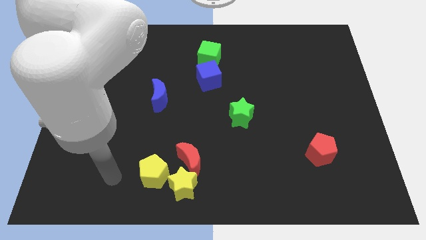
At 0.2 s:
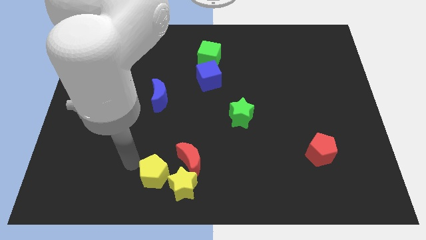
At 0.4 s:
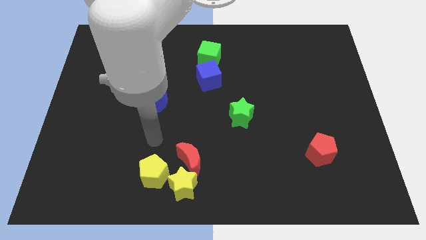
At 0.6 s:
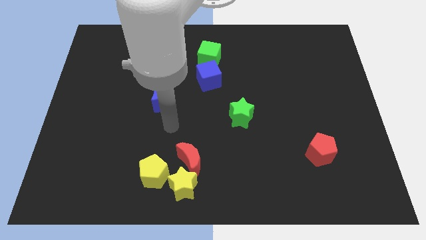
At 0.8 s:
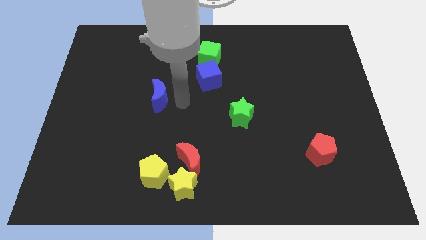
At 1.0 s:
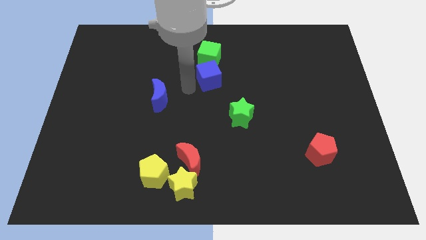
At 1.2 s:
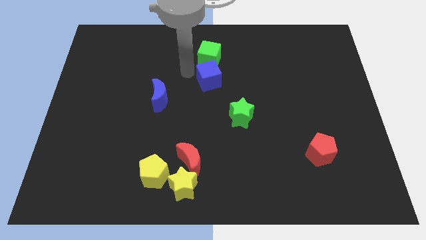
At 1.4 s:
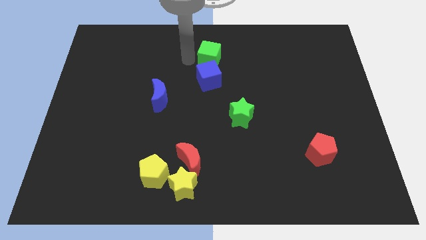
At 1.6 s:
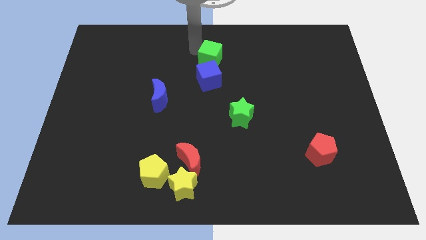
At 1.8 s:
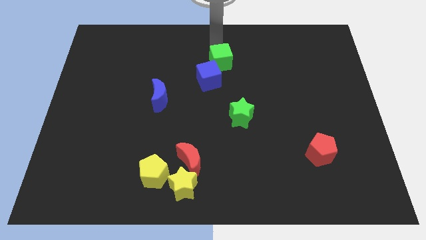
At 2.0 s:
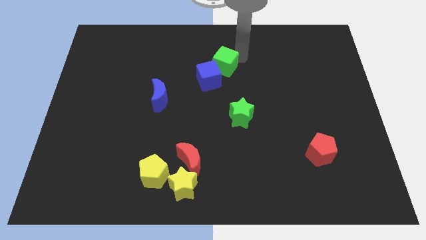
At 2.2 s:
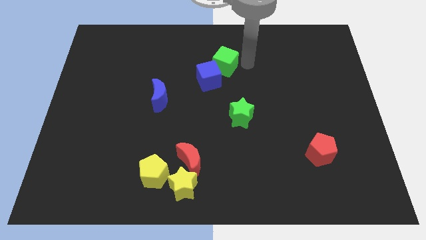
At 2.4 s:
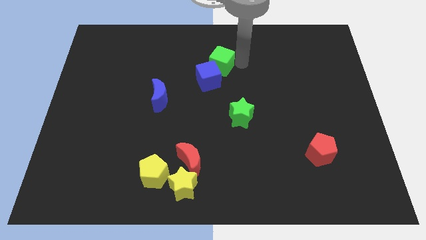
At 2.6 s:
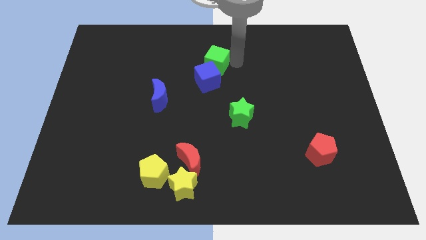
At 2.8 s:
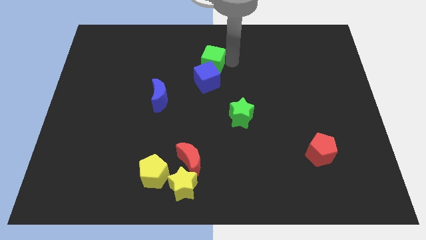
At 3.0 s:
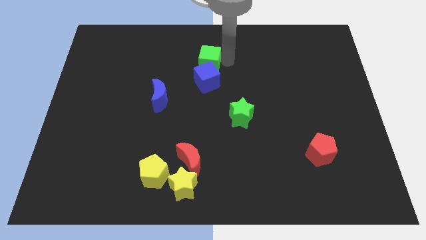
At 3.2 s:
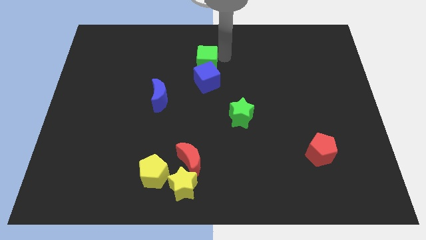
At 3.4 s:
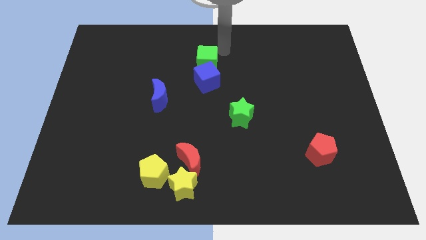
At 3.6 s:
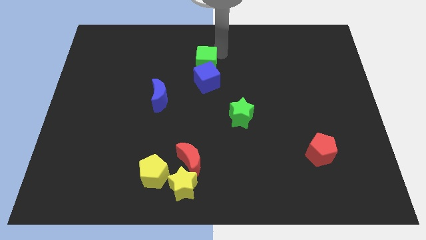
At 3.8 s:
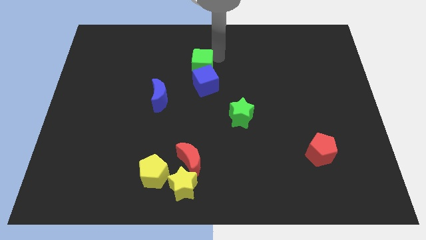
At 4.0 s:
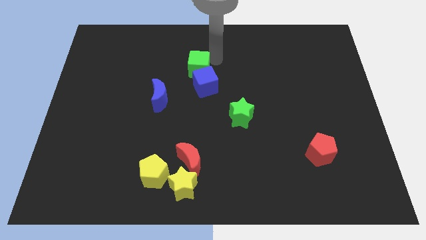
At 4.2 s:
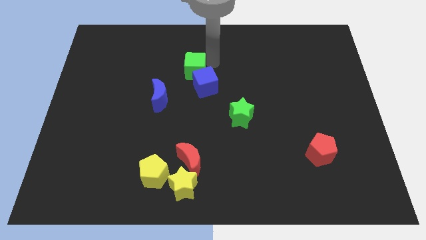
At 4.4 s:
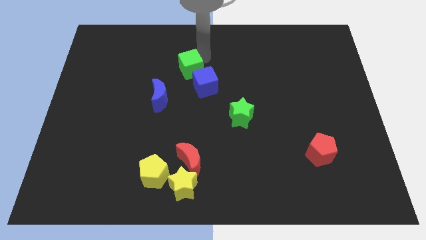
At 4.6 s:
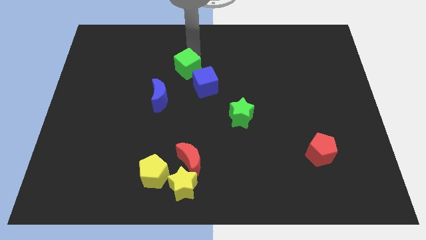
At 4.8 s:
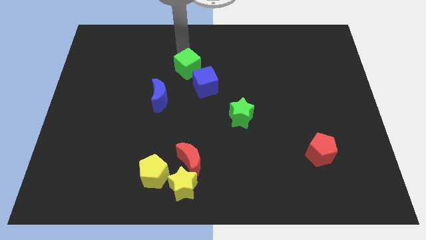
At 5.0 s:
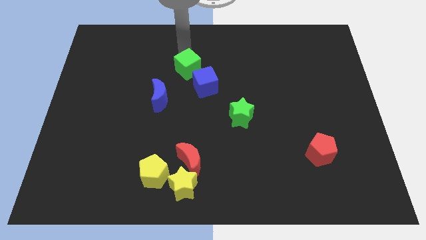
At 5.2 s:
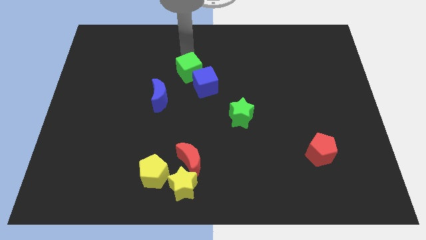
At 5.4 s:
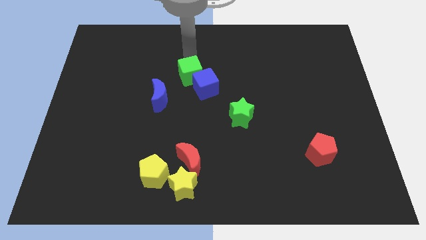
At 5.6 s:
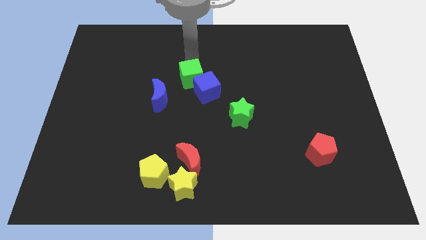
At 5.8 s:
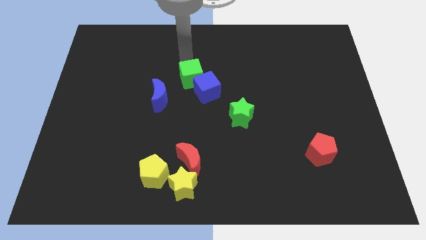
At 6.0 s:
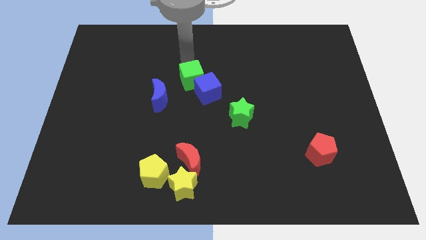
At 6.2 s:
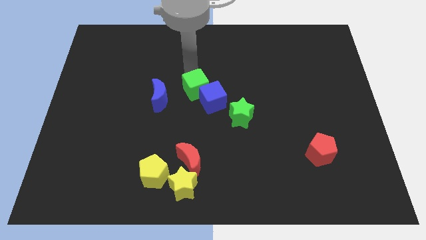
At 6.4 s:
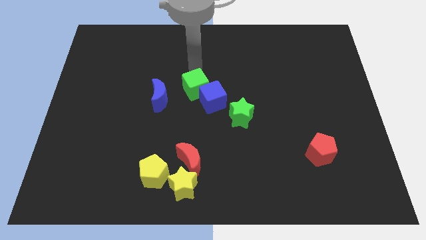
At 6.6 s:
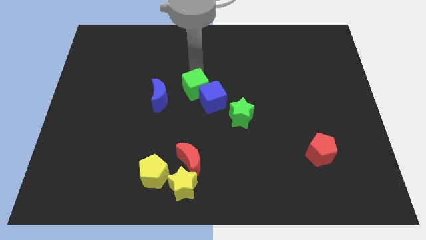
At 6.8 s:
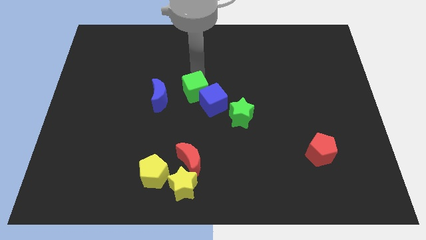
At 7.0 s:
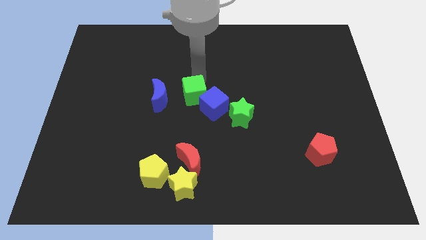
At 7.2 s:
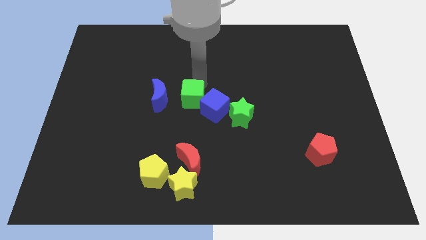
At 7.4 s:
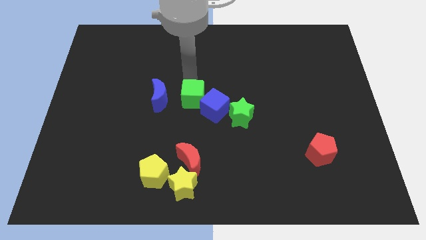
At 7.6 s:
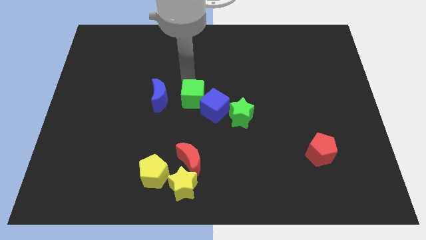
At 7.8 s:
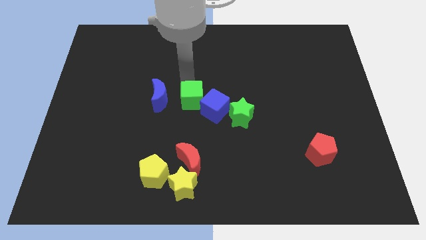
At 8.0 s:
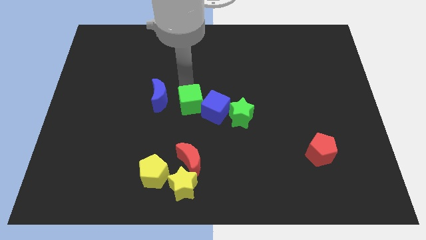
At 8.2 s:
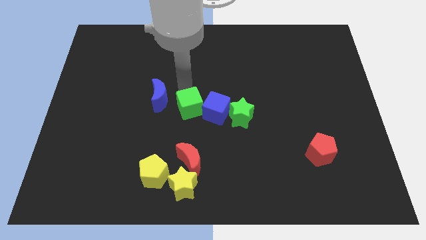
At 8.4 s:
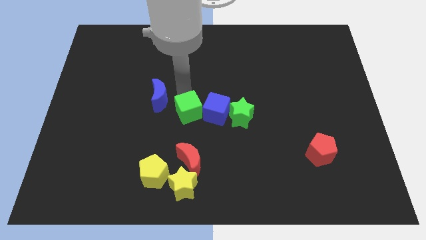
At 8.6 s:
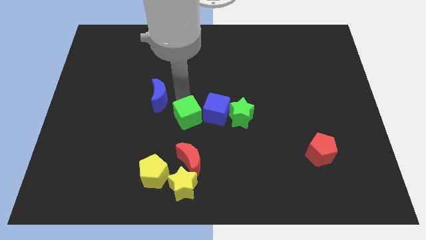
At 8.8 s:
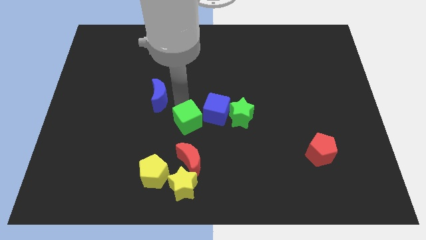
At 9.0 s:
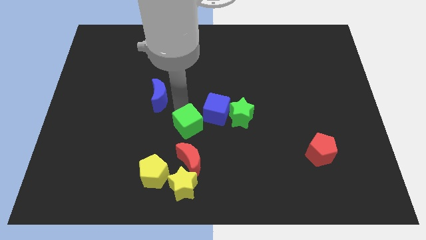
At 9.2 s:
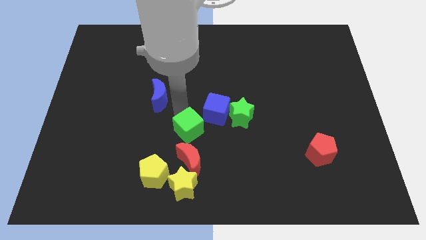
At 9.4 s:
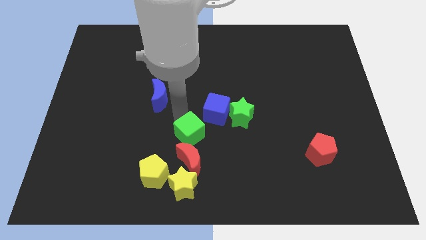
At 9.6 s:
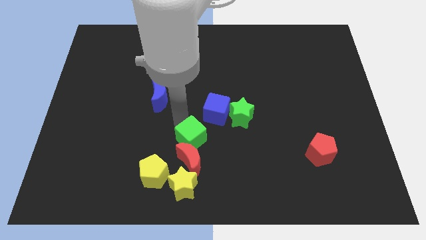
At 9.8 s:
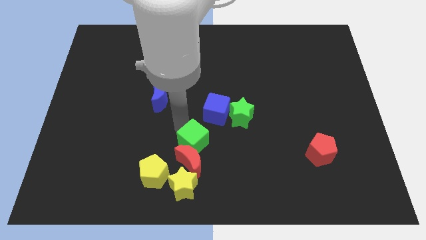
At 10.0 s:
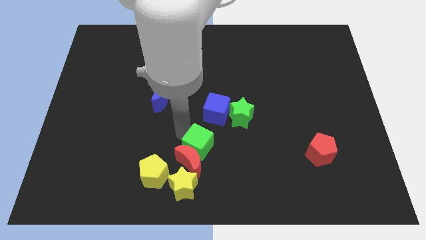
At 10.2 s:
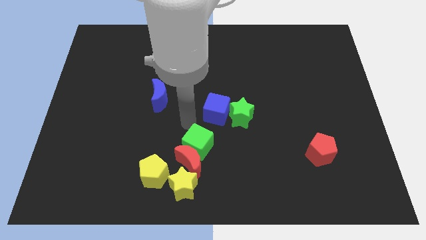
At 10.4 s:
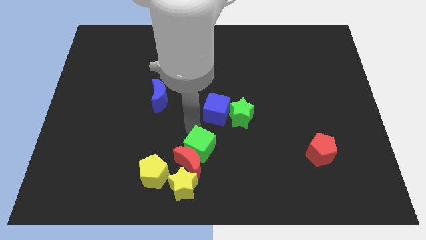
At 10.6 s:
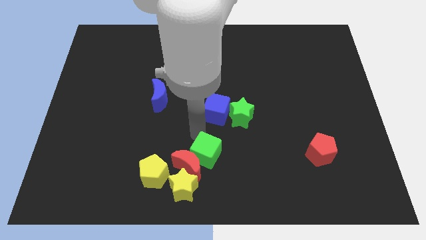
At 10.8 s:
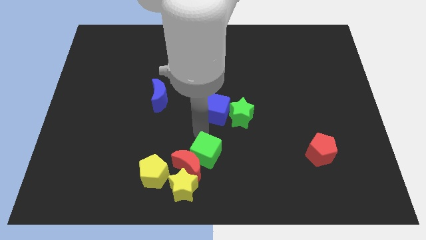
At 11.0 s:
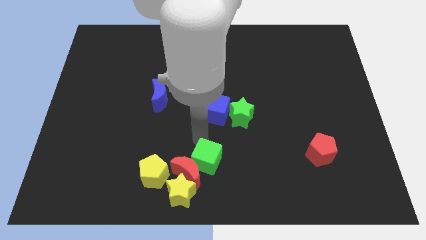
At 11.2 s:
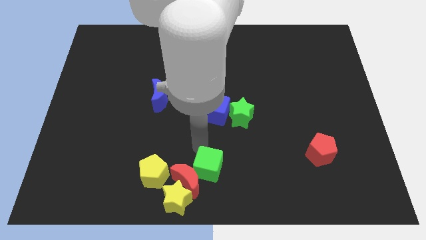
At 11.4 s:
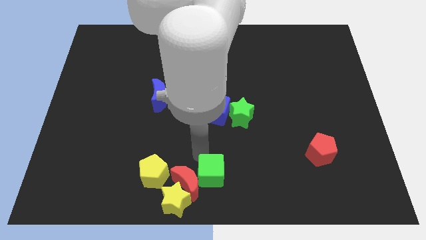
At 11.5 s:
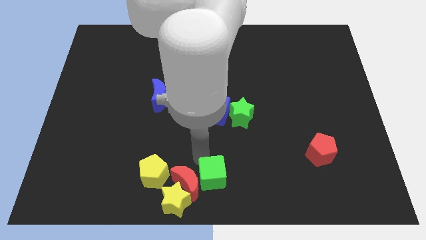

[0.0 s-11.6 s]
slide the green cube to the bottom right of the red moon

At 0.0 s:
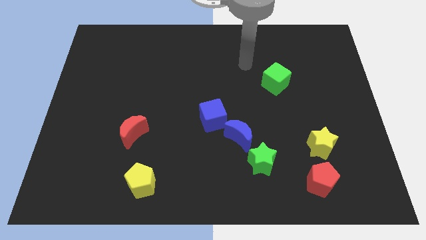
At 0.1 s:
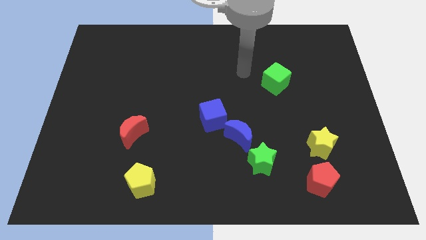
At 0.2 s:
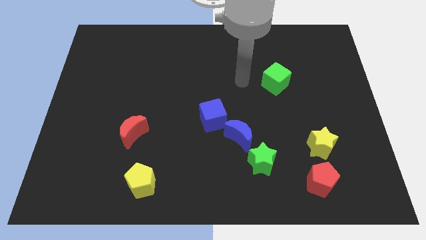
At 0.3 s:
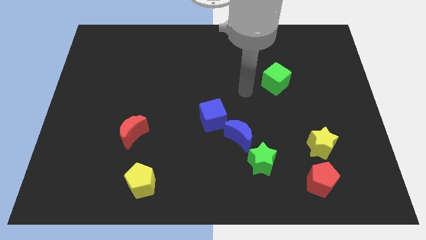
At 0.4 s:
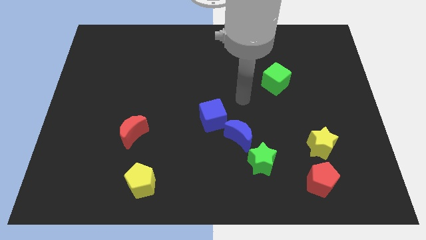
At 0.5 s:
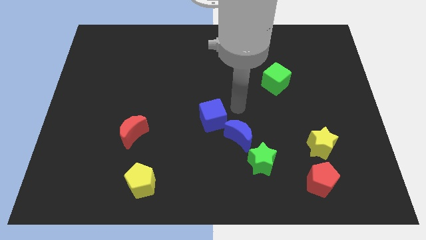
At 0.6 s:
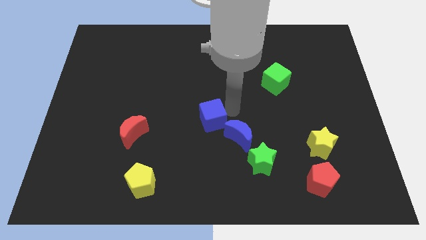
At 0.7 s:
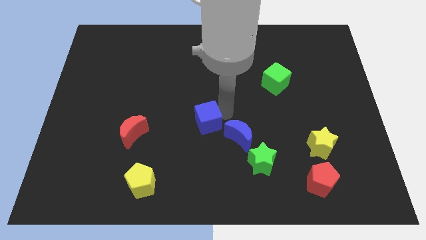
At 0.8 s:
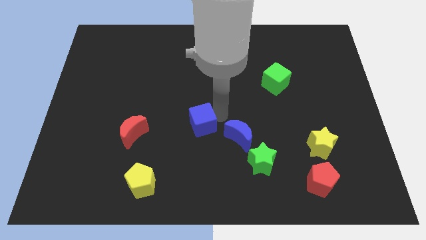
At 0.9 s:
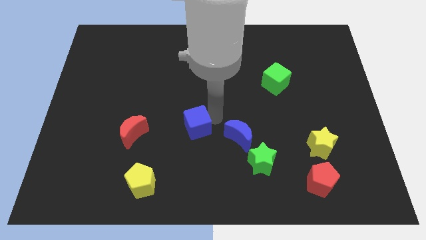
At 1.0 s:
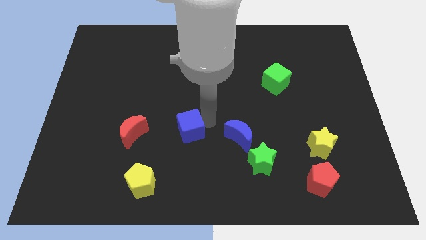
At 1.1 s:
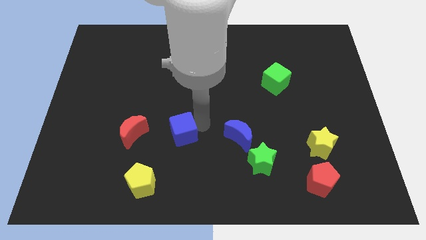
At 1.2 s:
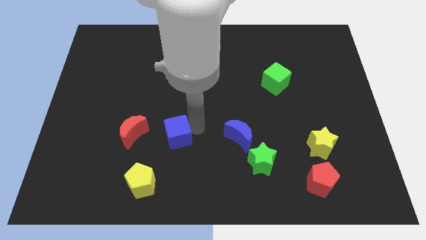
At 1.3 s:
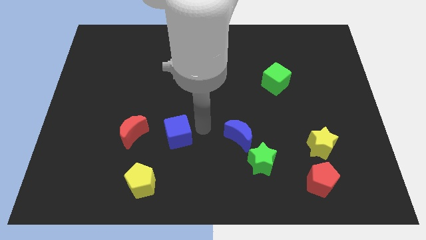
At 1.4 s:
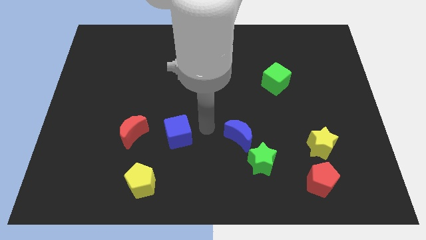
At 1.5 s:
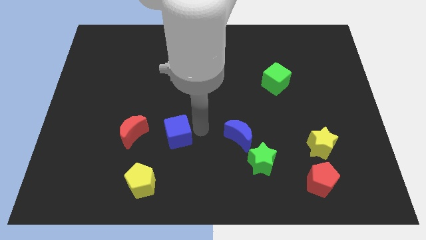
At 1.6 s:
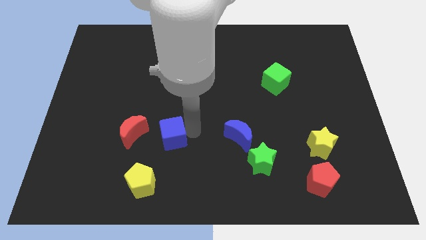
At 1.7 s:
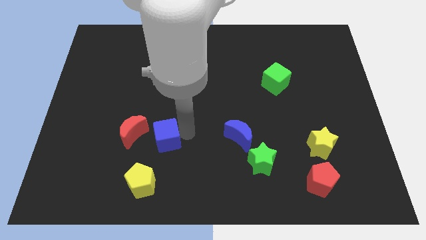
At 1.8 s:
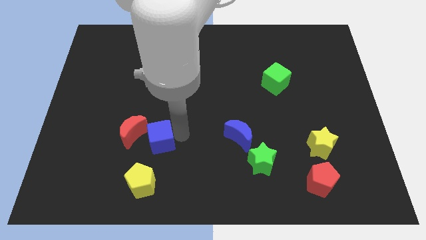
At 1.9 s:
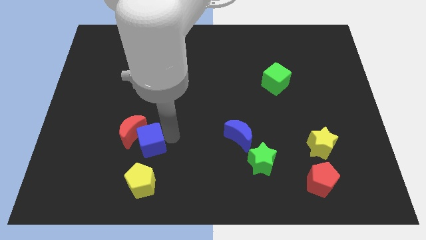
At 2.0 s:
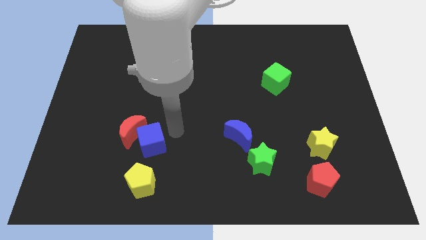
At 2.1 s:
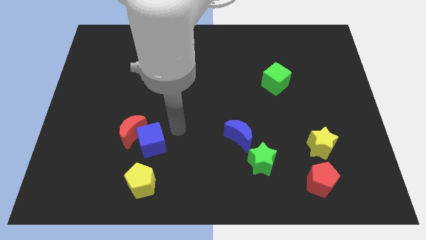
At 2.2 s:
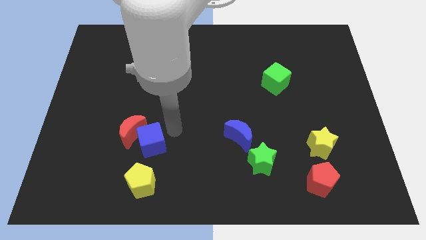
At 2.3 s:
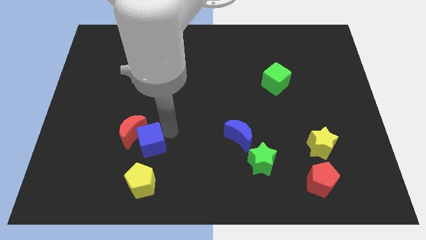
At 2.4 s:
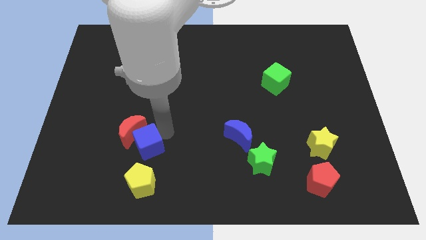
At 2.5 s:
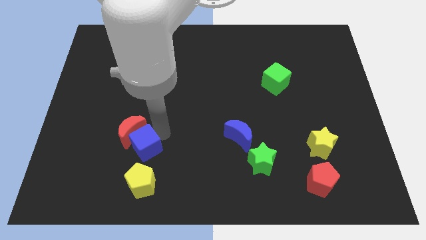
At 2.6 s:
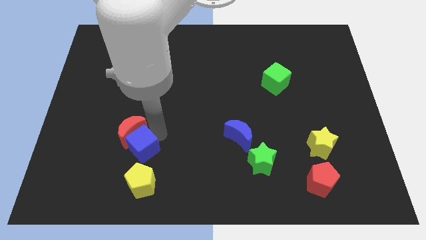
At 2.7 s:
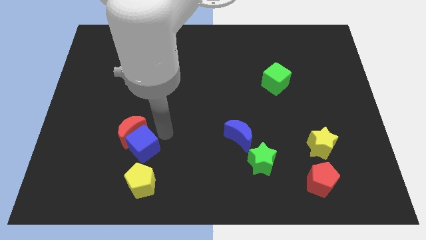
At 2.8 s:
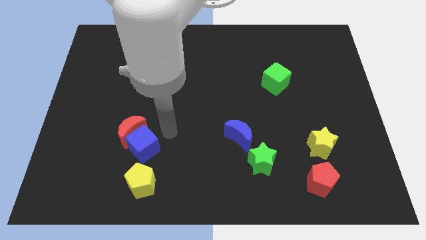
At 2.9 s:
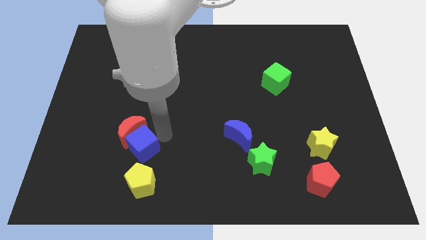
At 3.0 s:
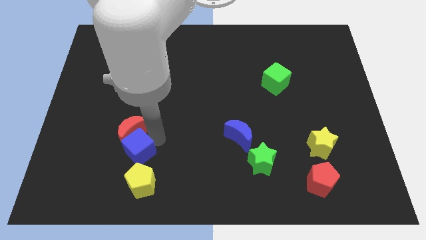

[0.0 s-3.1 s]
put the blue cube diagonally up and to the left of the yellow pentagon
